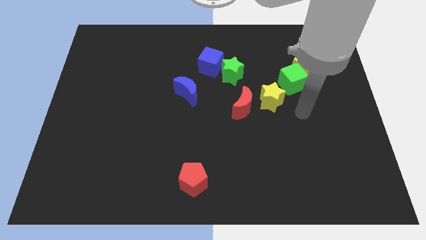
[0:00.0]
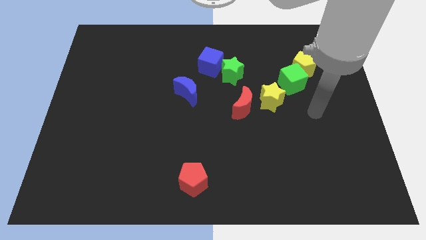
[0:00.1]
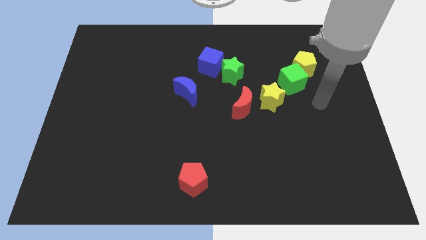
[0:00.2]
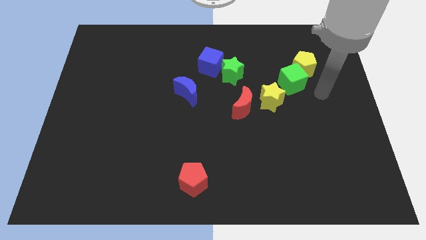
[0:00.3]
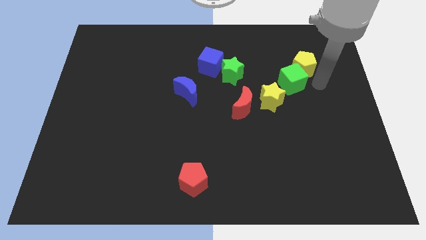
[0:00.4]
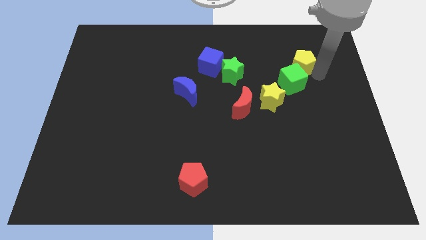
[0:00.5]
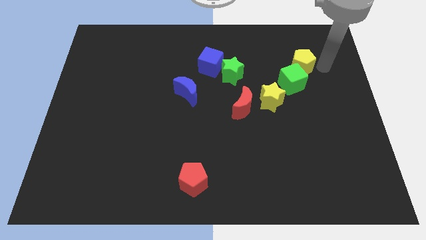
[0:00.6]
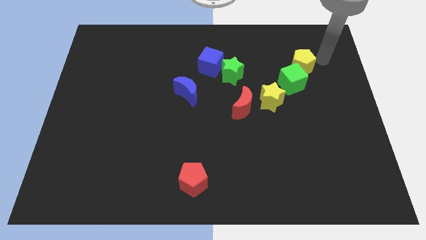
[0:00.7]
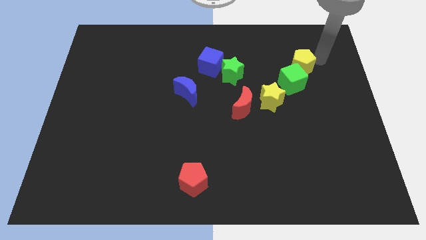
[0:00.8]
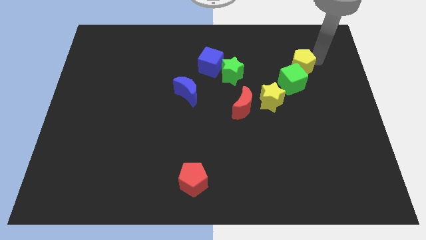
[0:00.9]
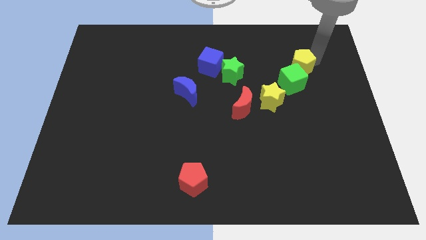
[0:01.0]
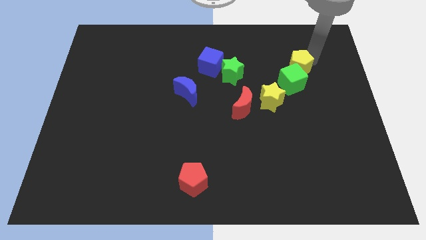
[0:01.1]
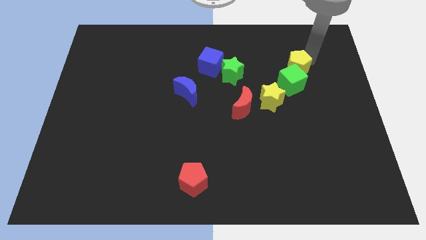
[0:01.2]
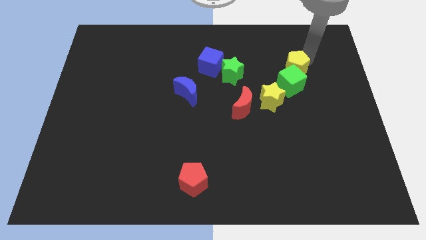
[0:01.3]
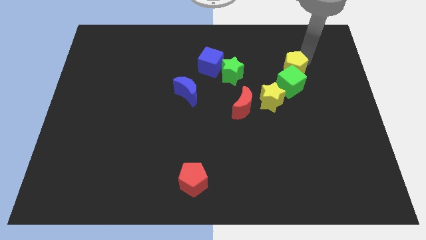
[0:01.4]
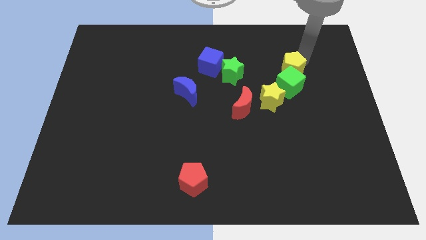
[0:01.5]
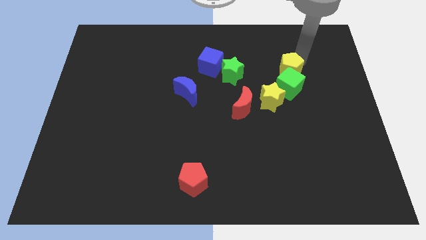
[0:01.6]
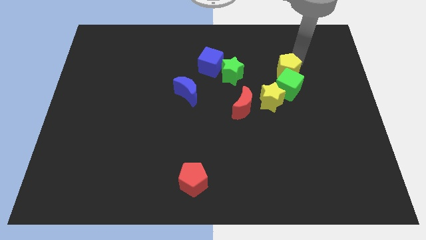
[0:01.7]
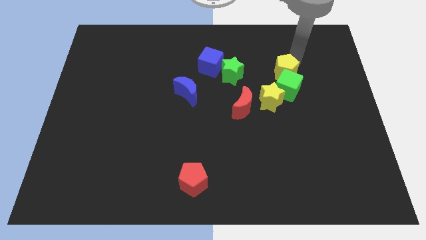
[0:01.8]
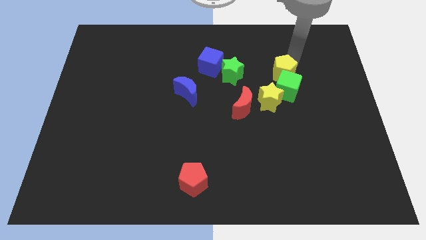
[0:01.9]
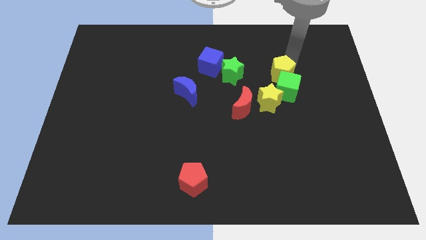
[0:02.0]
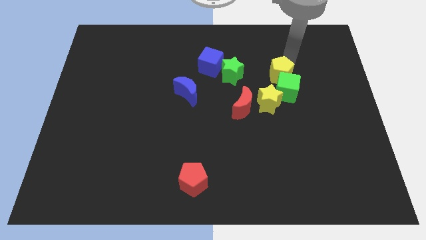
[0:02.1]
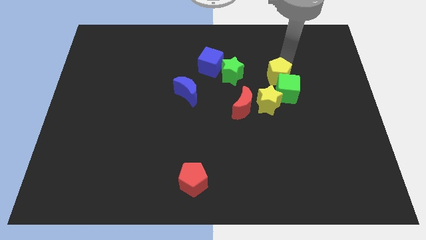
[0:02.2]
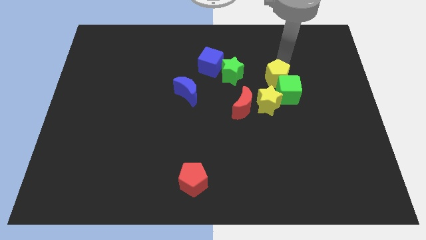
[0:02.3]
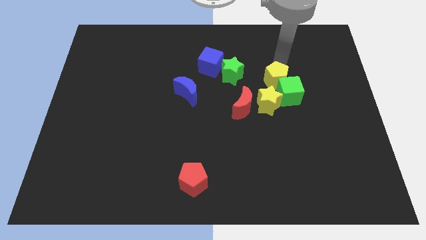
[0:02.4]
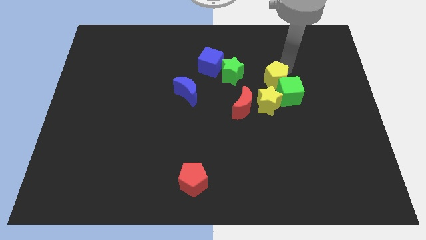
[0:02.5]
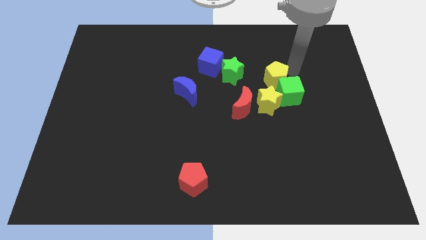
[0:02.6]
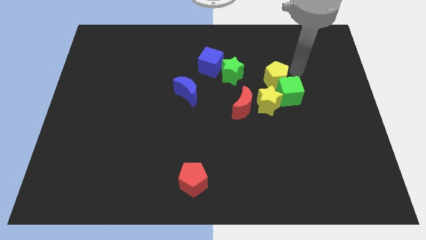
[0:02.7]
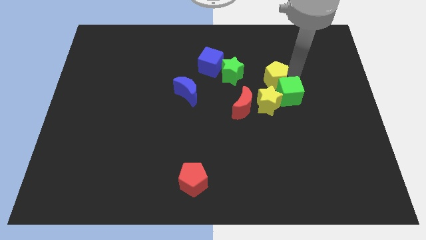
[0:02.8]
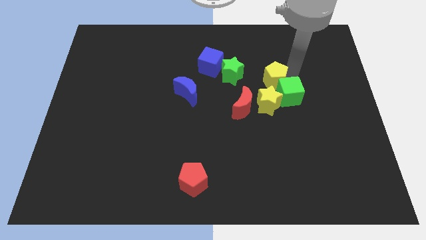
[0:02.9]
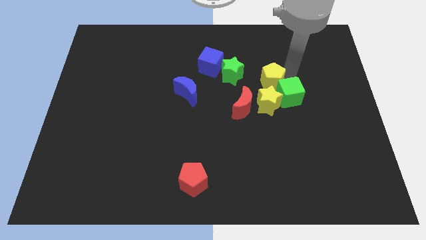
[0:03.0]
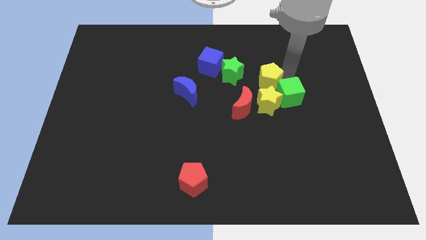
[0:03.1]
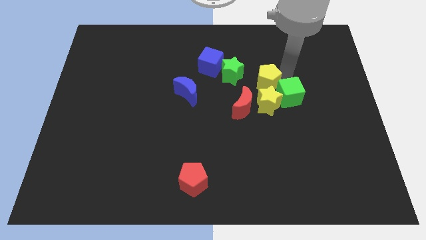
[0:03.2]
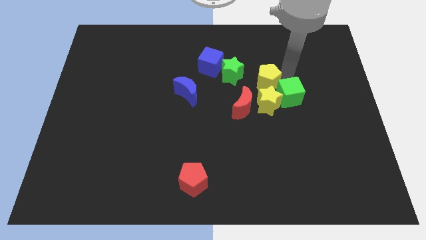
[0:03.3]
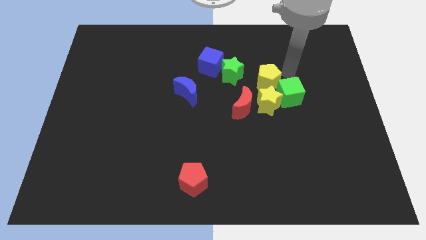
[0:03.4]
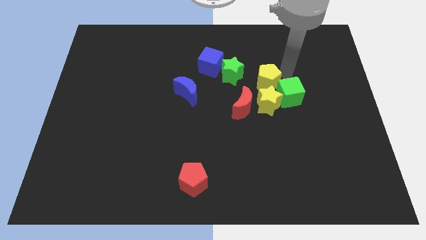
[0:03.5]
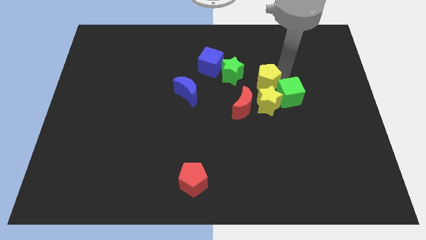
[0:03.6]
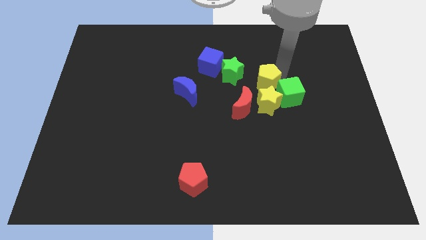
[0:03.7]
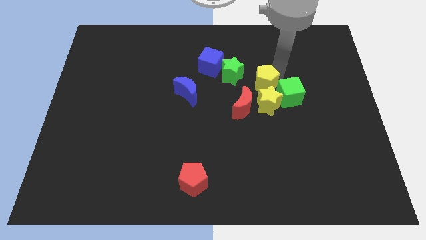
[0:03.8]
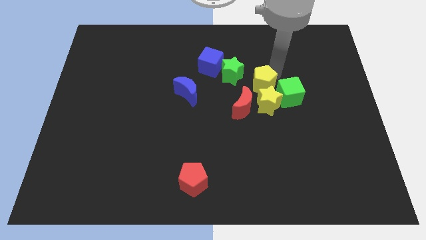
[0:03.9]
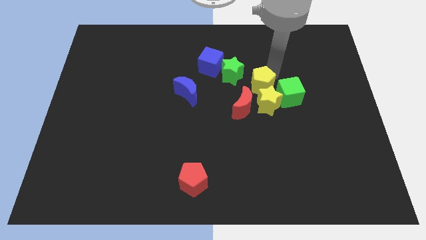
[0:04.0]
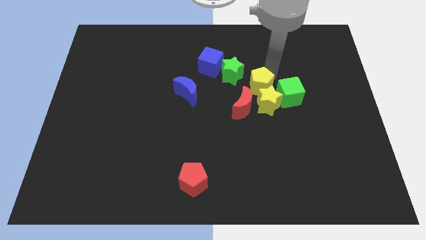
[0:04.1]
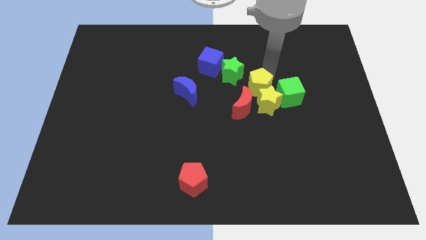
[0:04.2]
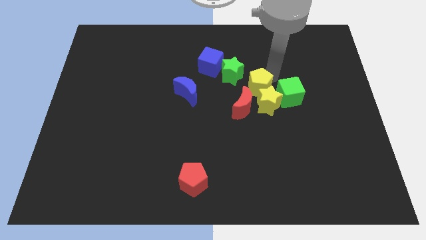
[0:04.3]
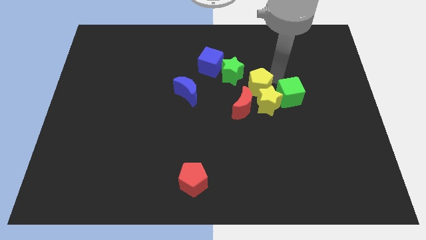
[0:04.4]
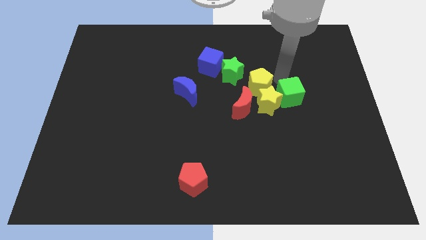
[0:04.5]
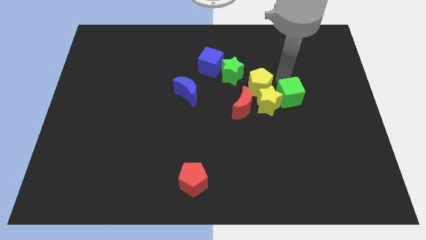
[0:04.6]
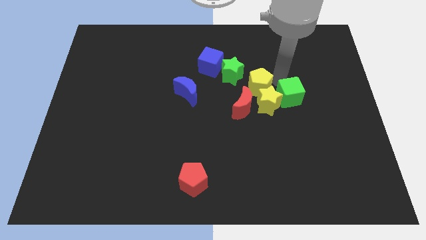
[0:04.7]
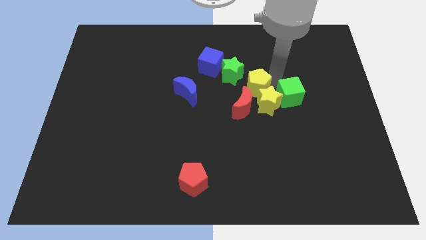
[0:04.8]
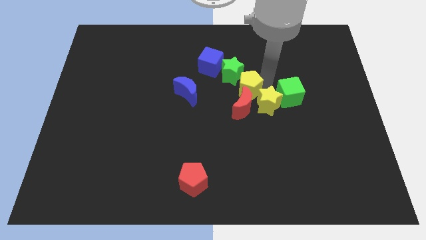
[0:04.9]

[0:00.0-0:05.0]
move the yellow pentagon below the green star

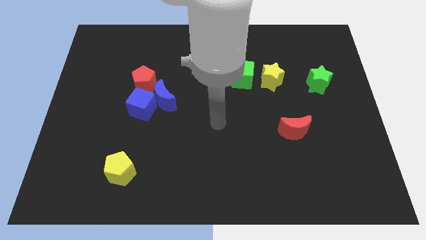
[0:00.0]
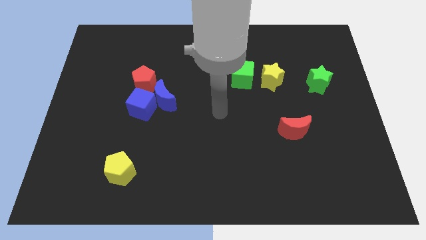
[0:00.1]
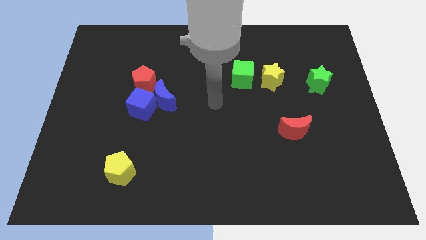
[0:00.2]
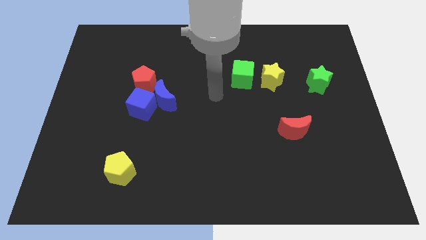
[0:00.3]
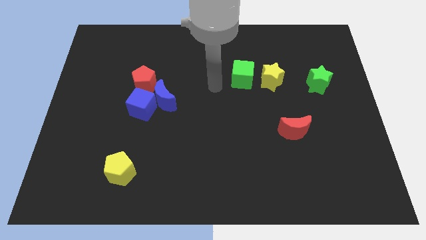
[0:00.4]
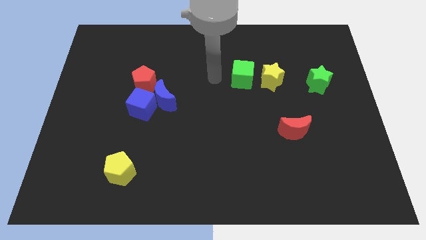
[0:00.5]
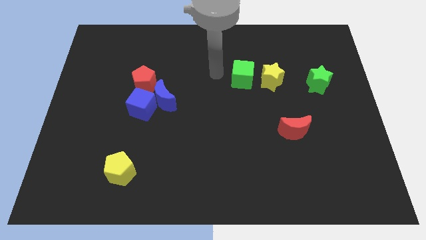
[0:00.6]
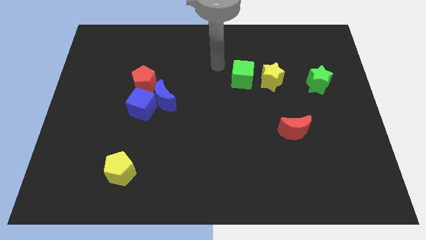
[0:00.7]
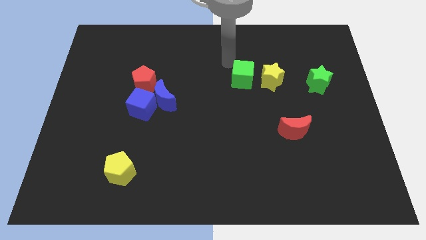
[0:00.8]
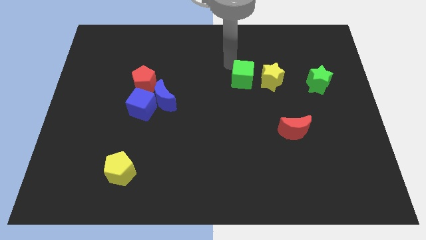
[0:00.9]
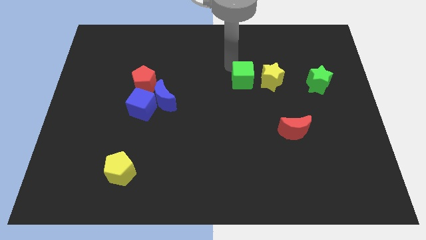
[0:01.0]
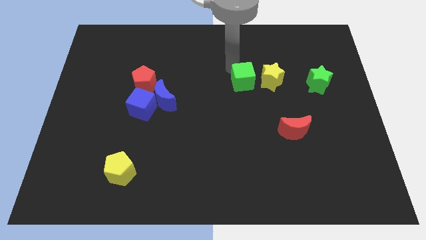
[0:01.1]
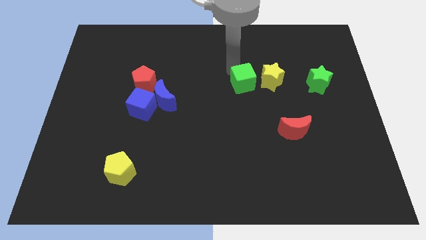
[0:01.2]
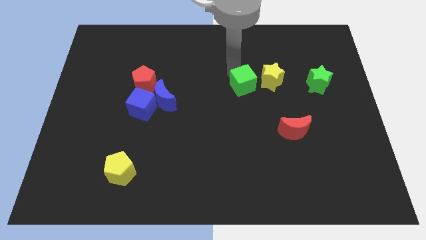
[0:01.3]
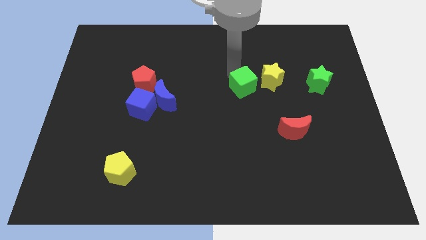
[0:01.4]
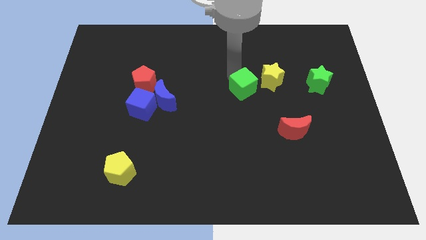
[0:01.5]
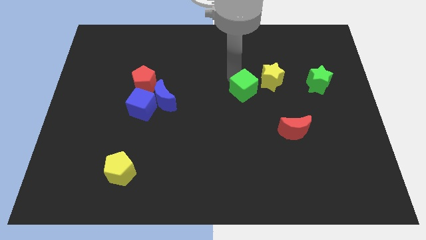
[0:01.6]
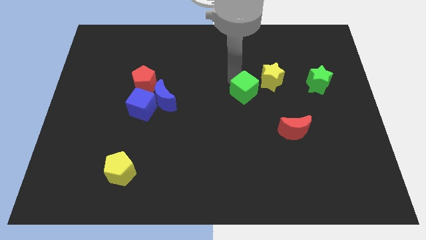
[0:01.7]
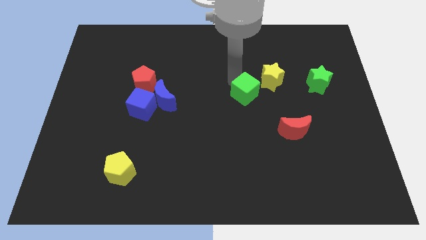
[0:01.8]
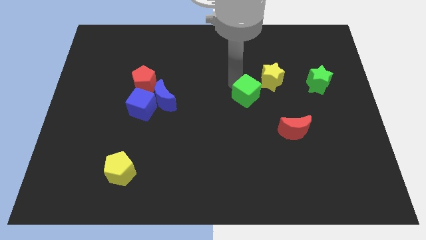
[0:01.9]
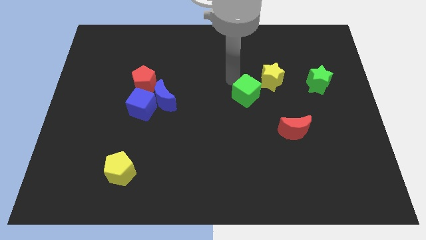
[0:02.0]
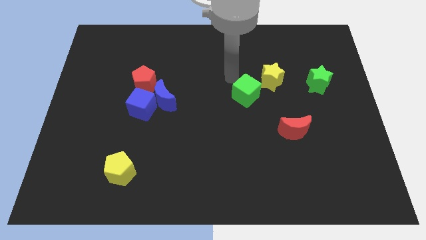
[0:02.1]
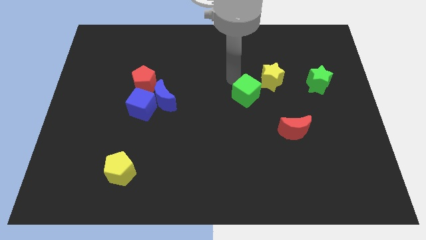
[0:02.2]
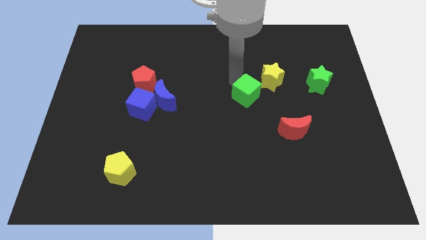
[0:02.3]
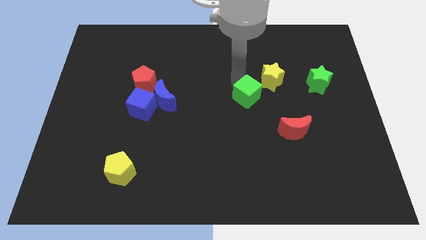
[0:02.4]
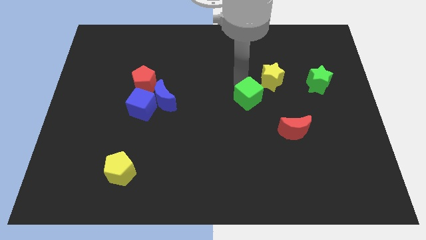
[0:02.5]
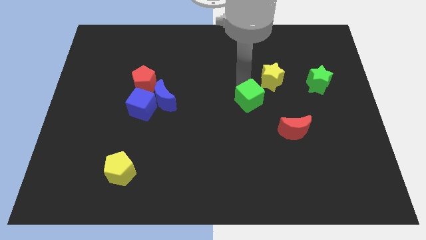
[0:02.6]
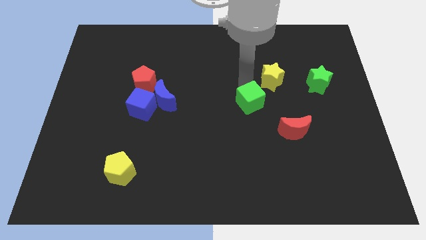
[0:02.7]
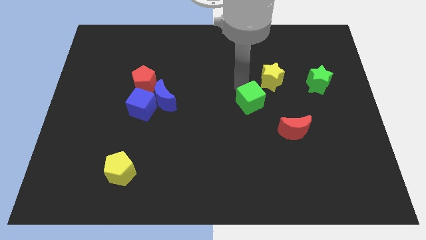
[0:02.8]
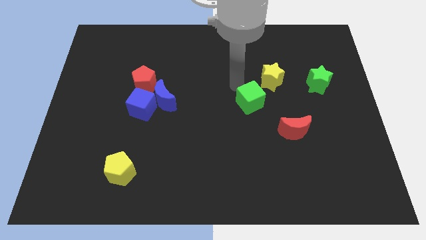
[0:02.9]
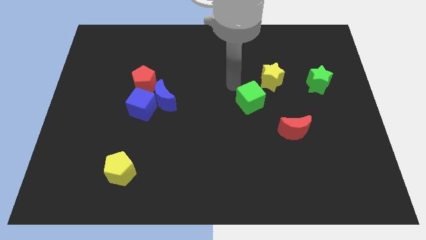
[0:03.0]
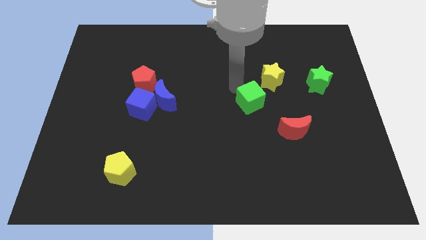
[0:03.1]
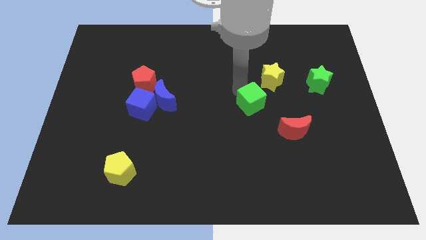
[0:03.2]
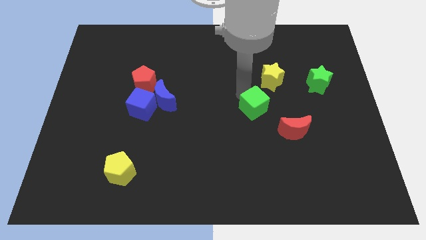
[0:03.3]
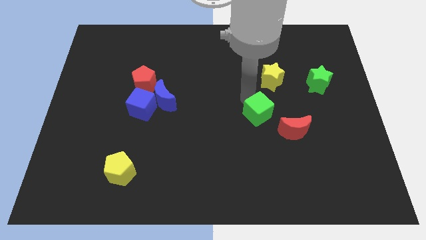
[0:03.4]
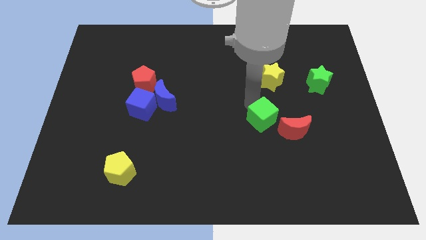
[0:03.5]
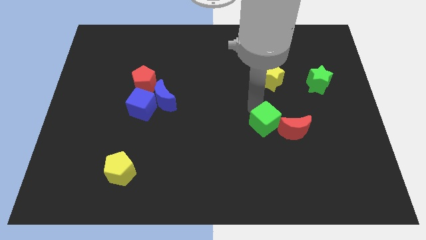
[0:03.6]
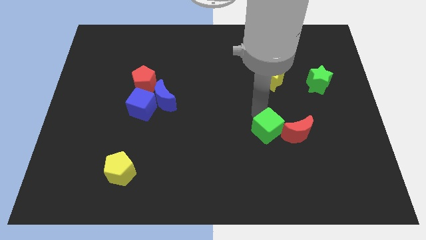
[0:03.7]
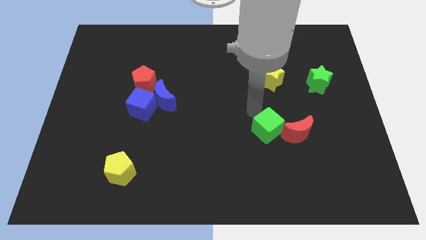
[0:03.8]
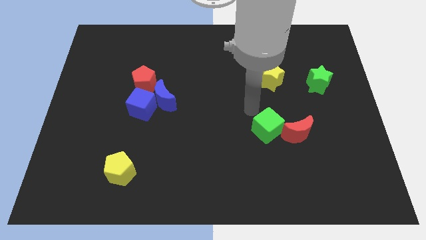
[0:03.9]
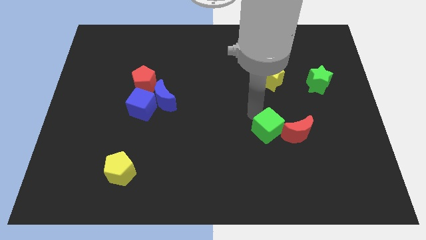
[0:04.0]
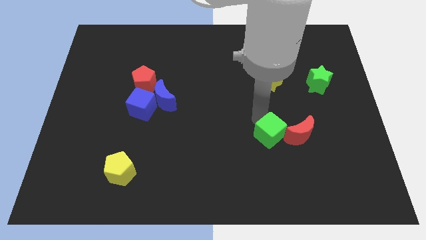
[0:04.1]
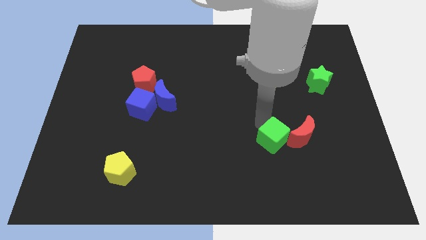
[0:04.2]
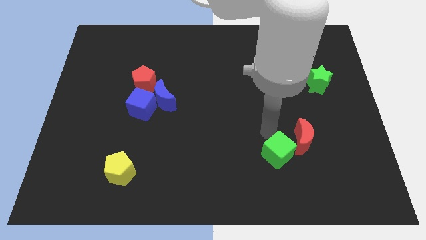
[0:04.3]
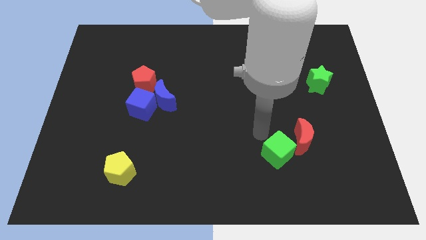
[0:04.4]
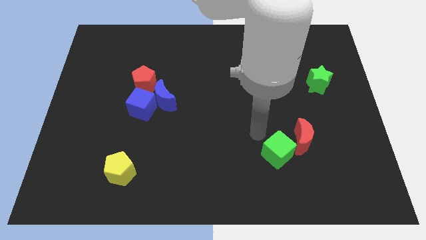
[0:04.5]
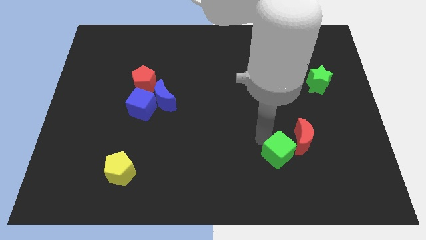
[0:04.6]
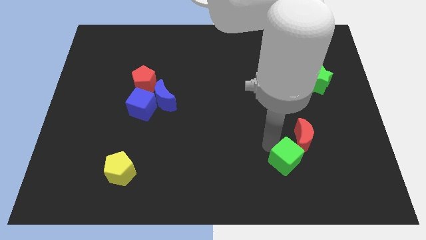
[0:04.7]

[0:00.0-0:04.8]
put the green cube to the bottom of the red moon
